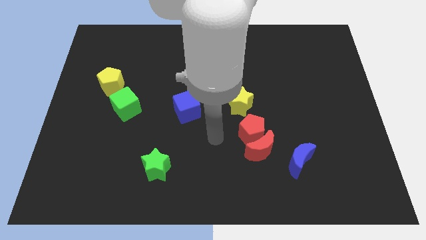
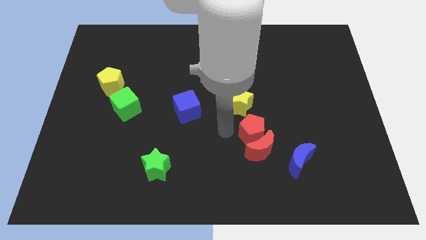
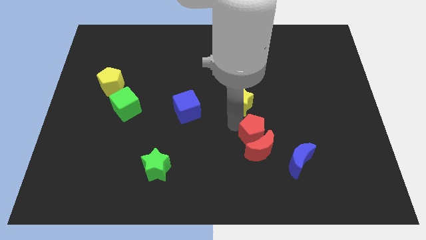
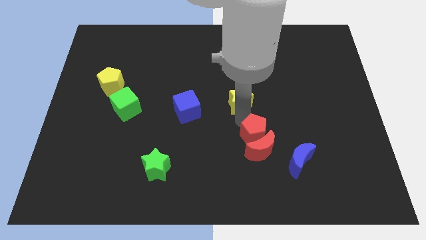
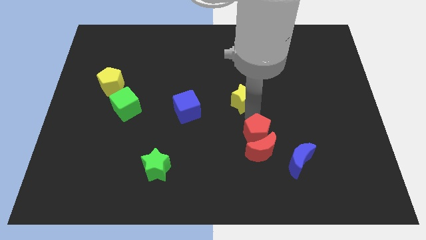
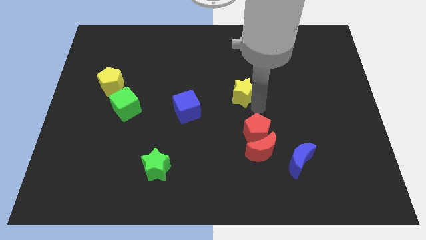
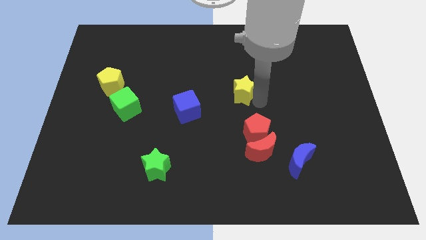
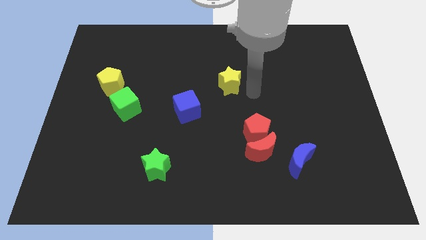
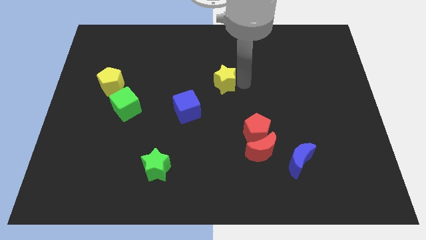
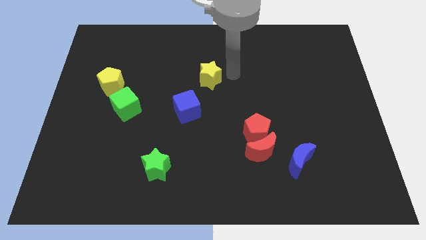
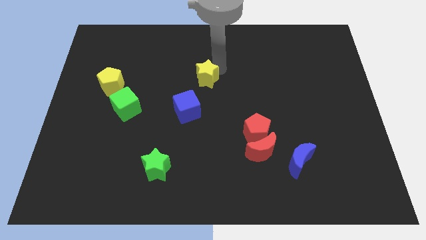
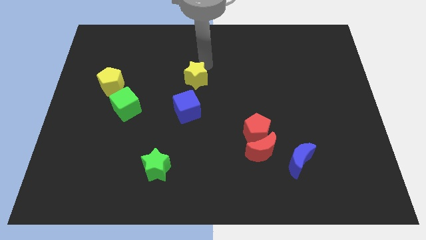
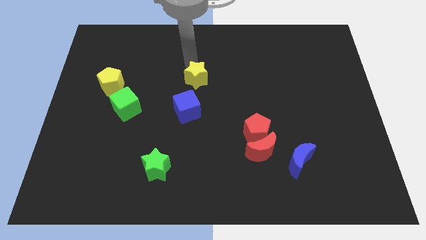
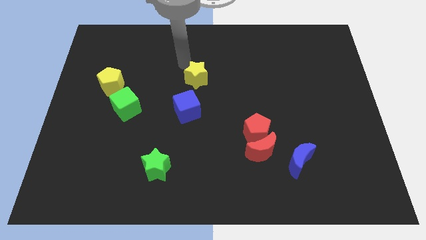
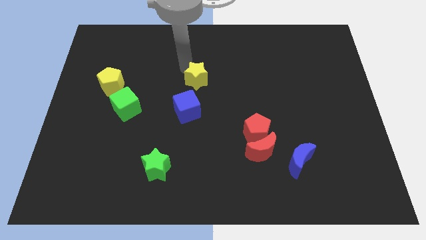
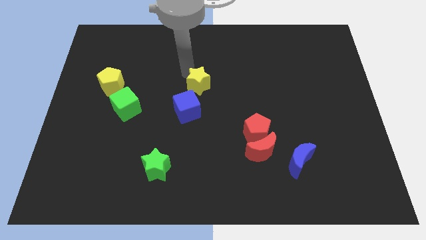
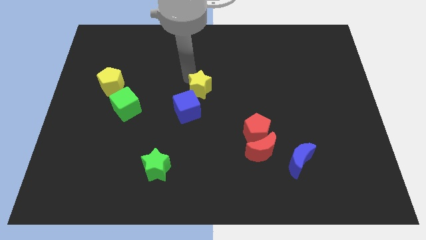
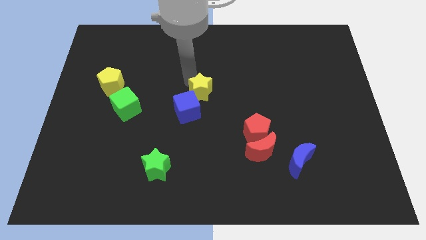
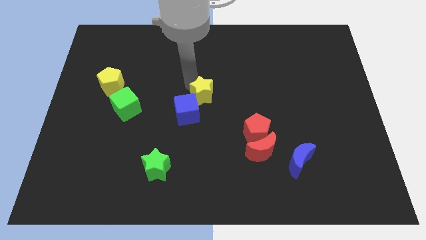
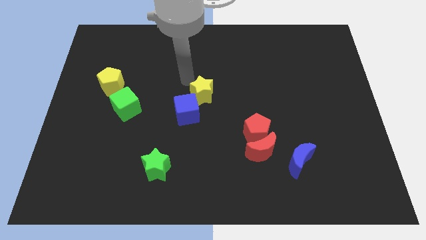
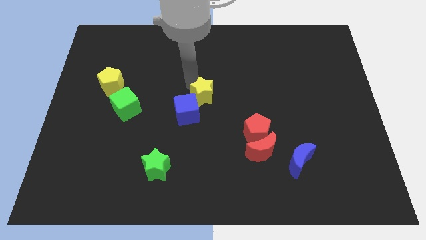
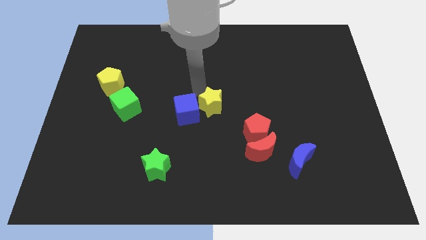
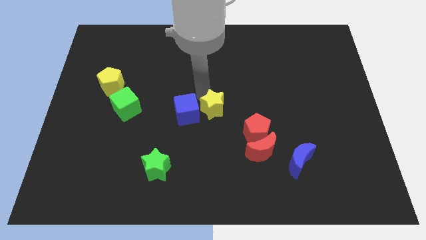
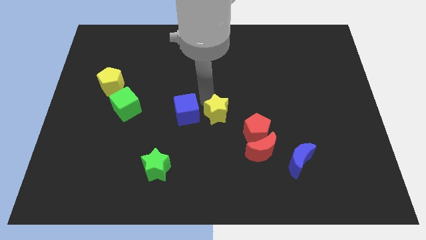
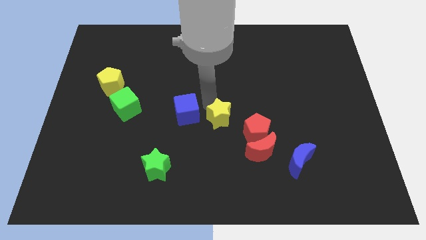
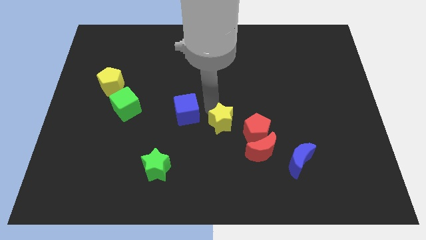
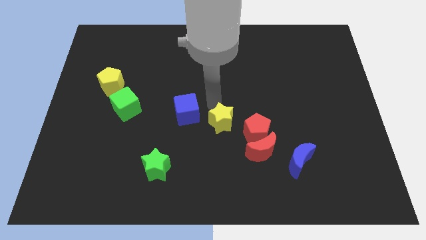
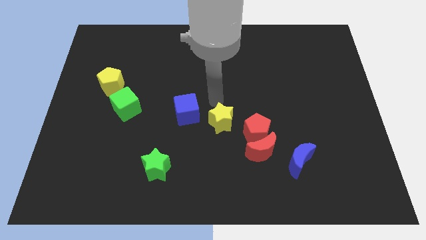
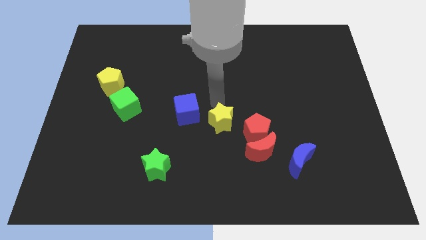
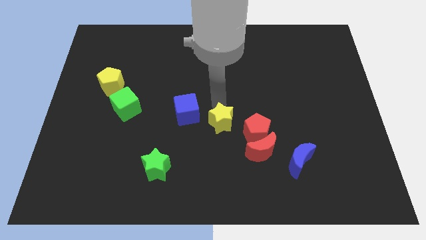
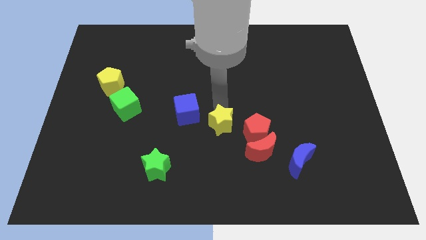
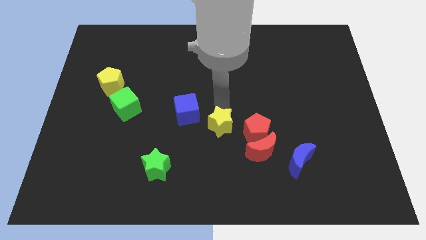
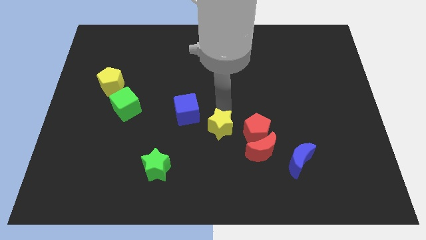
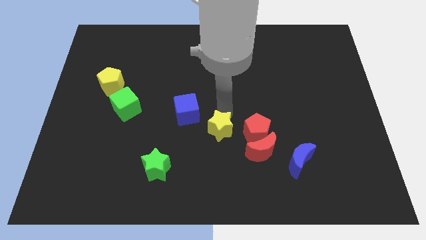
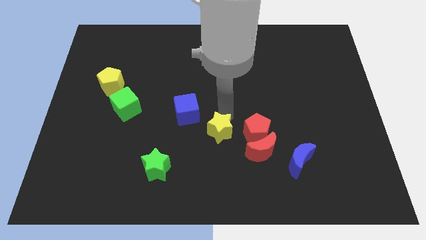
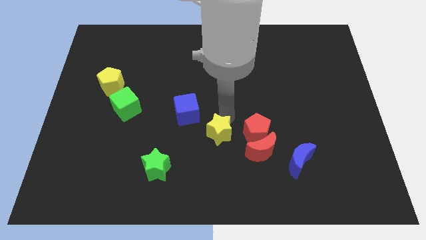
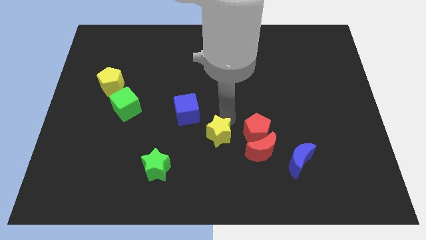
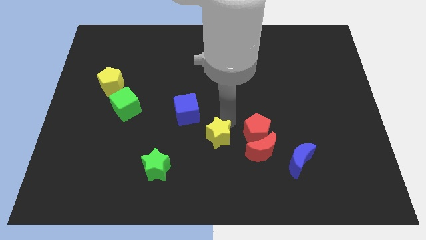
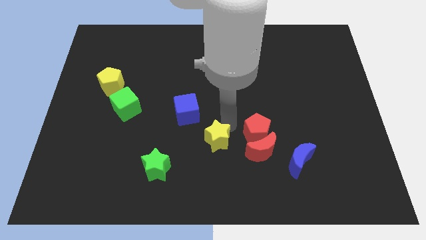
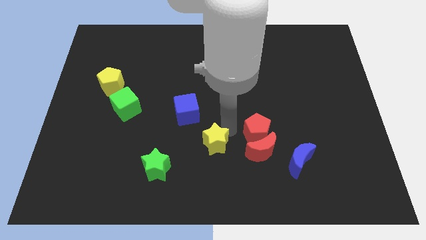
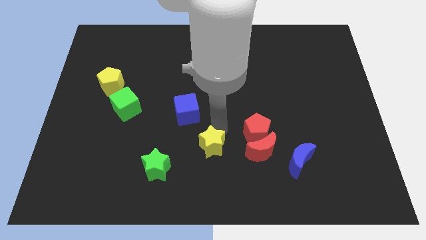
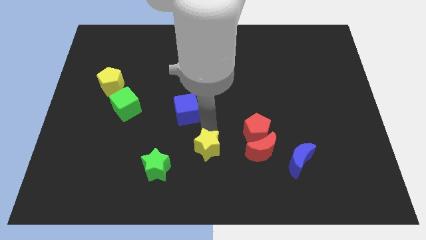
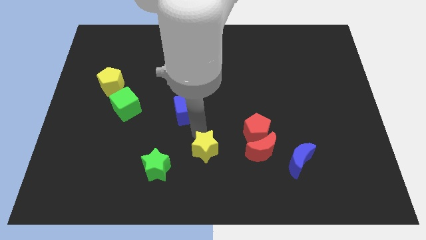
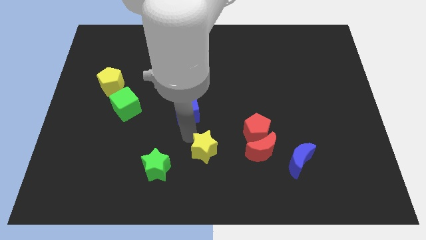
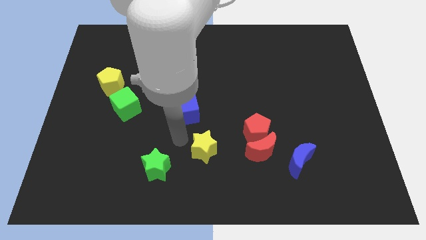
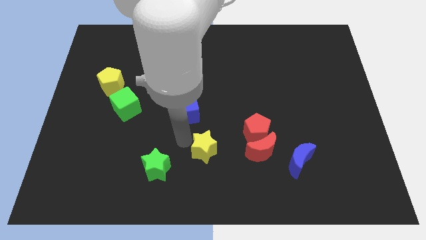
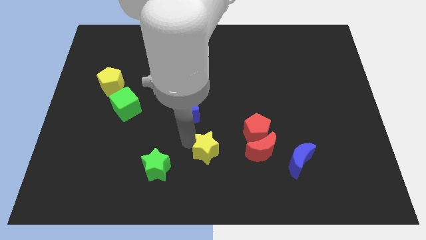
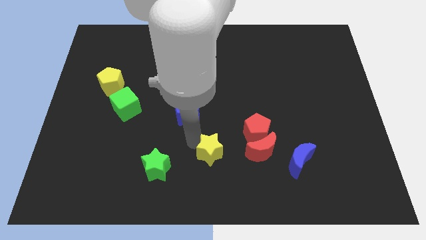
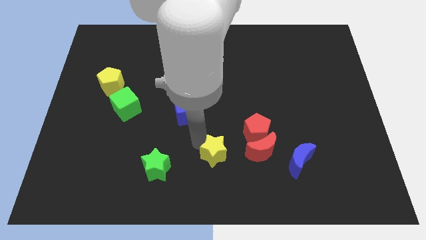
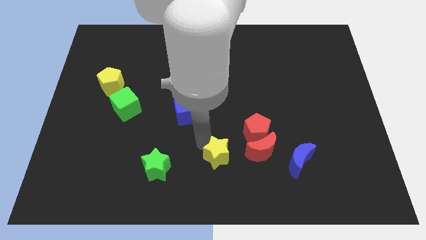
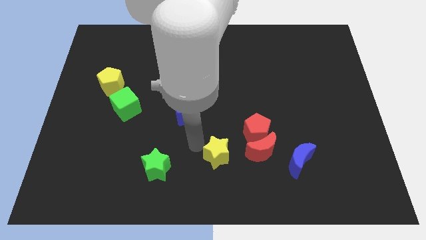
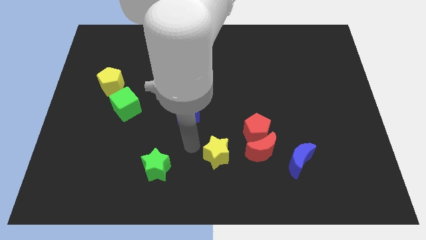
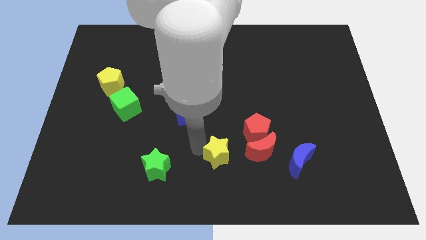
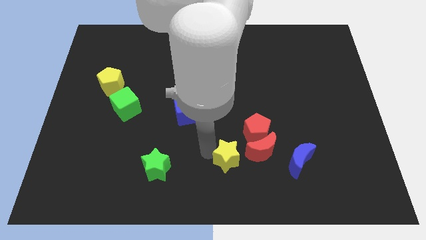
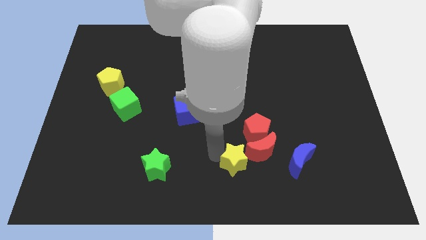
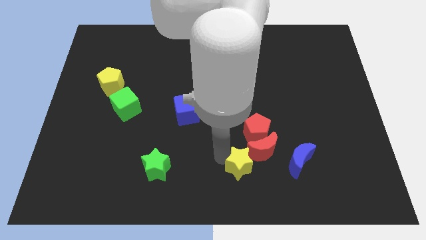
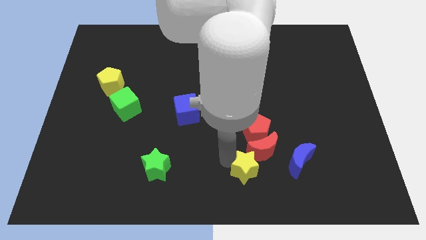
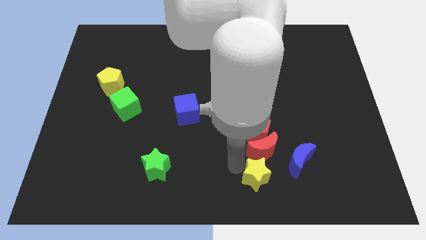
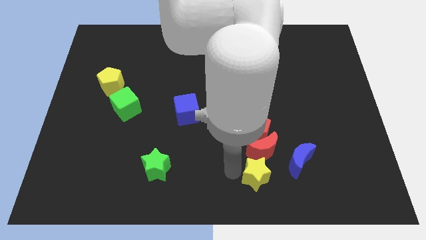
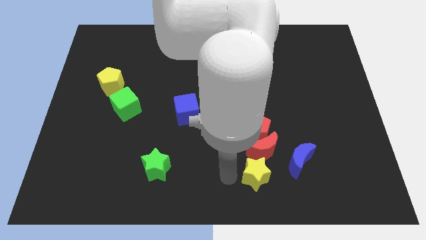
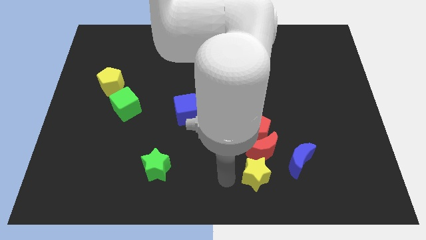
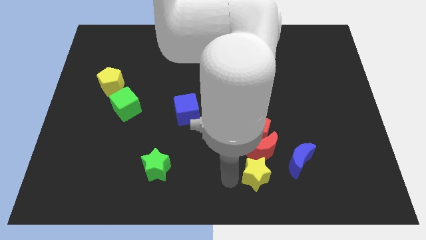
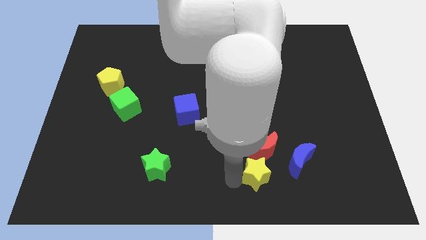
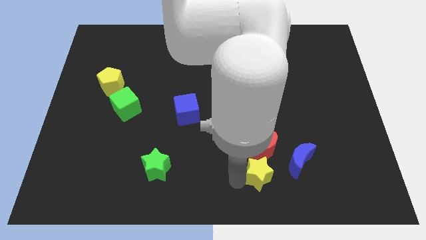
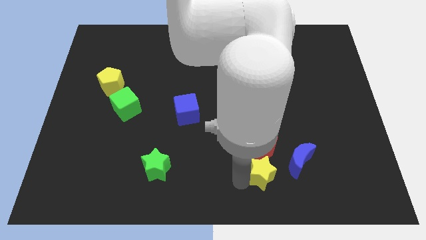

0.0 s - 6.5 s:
push the yellow star diagonally down and to the right of the red moon

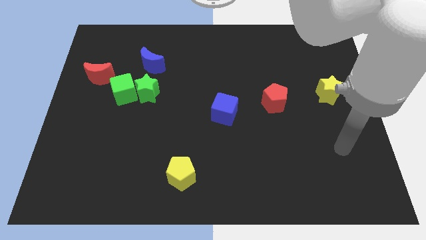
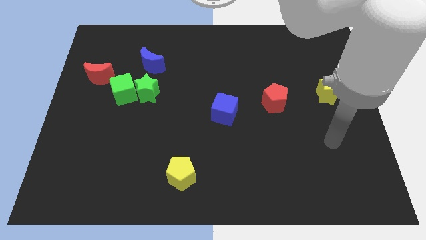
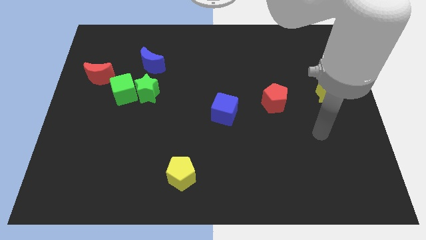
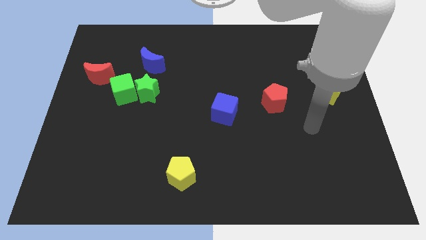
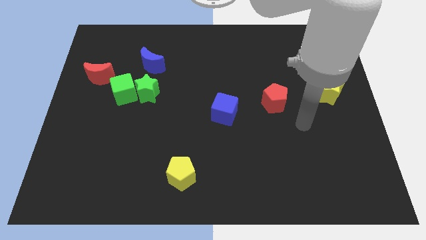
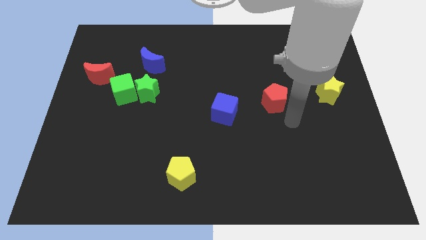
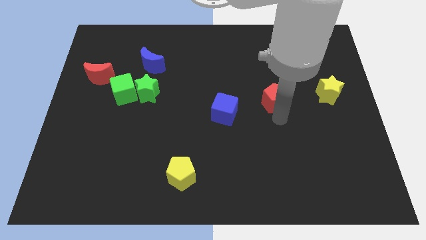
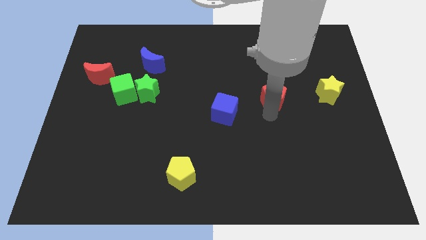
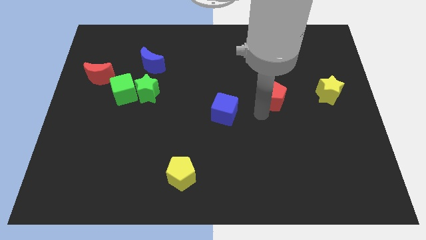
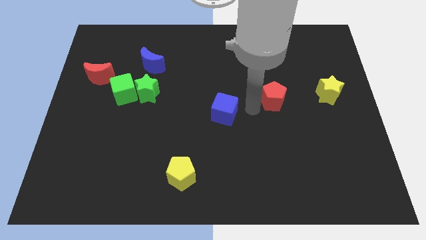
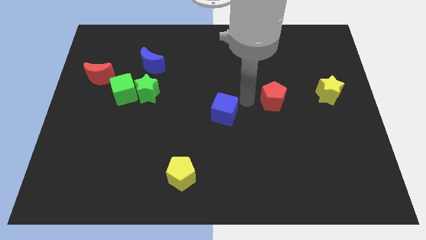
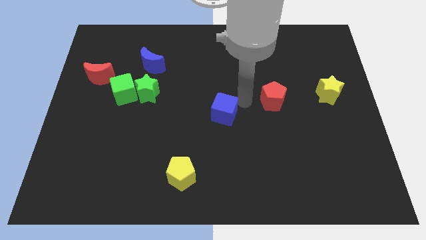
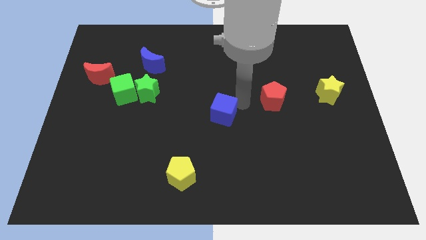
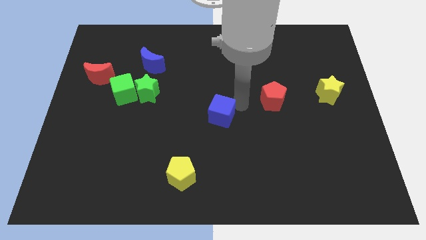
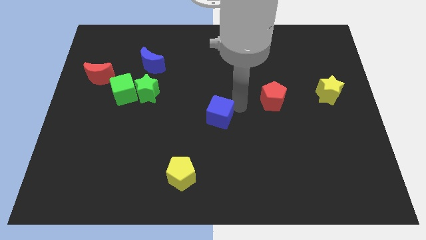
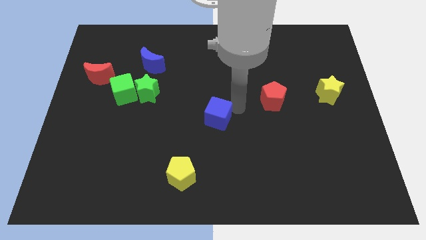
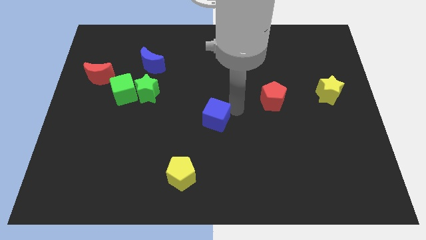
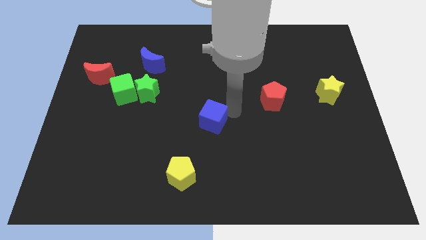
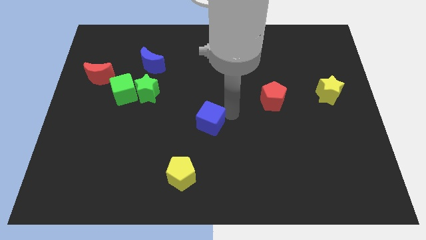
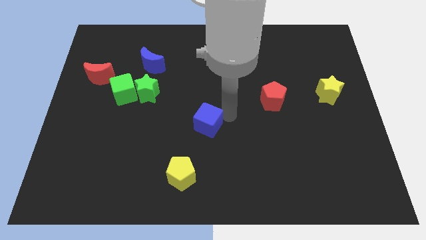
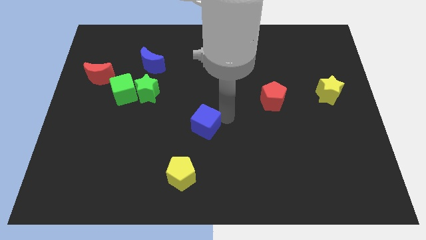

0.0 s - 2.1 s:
move the blue cube to the top side of the yellow pentagon
